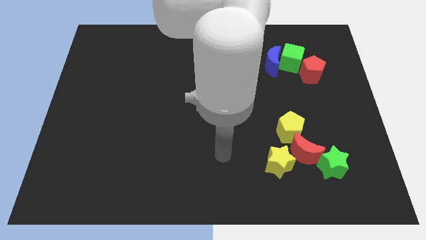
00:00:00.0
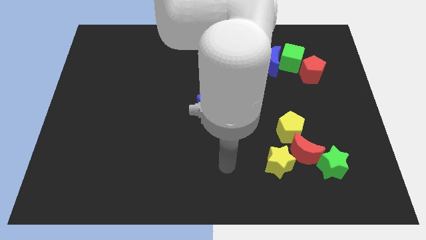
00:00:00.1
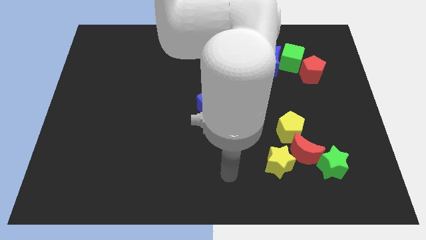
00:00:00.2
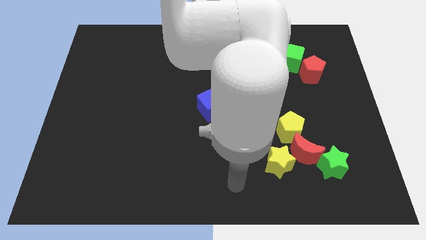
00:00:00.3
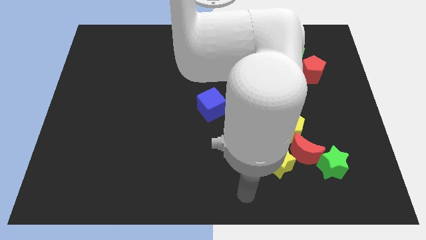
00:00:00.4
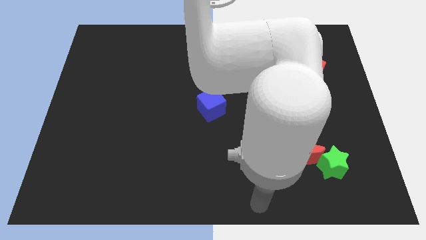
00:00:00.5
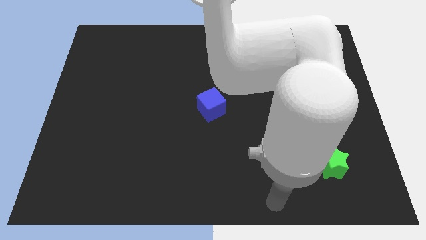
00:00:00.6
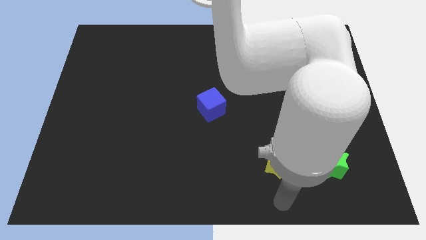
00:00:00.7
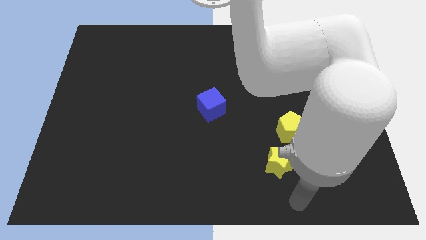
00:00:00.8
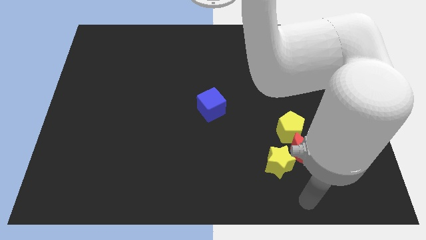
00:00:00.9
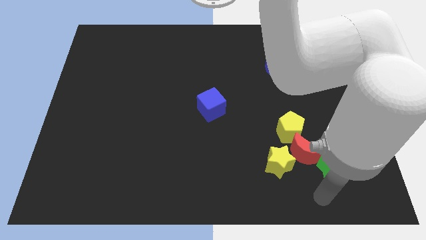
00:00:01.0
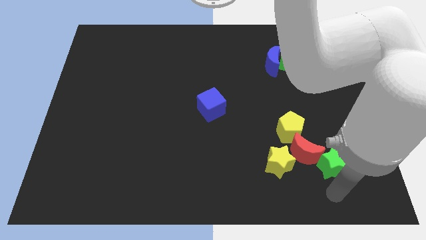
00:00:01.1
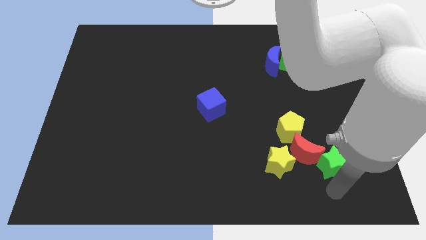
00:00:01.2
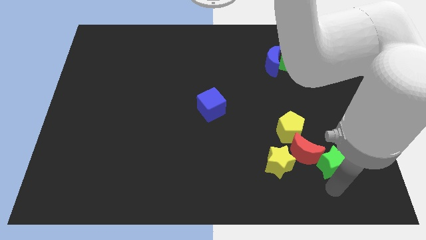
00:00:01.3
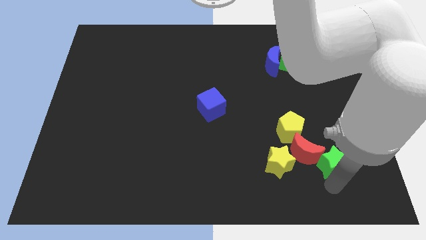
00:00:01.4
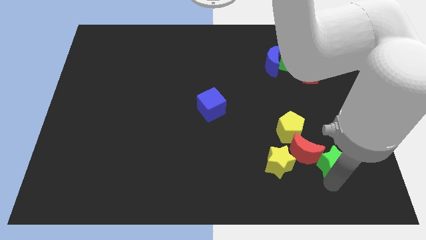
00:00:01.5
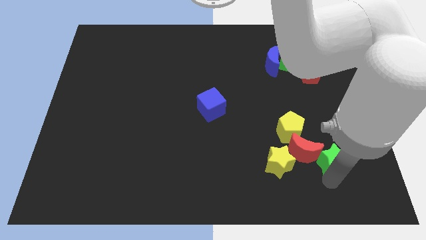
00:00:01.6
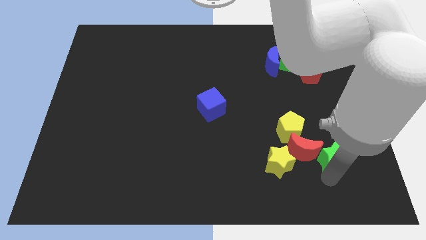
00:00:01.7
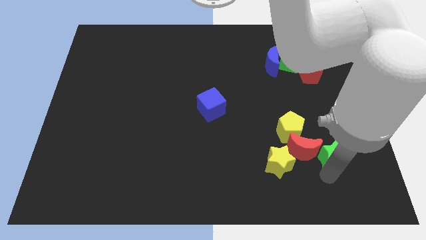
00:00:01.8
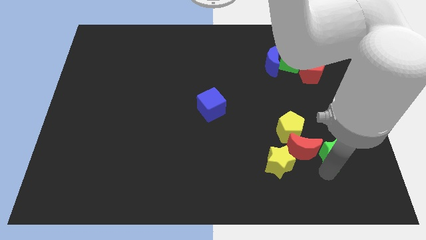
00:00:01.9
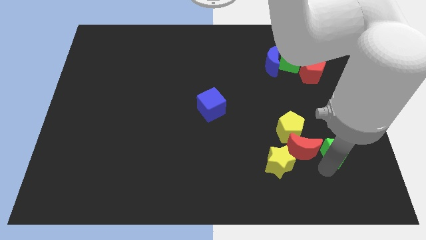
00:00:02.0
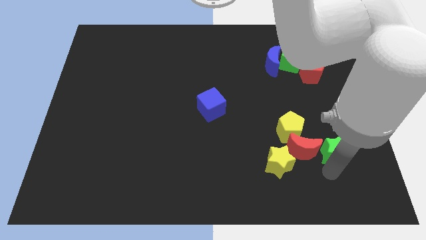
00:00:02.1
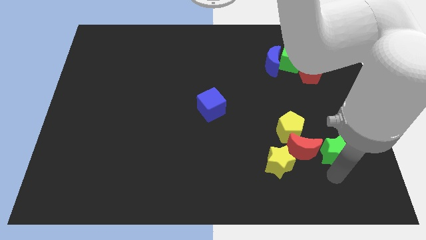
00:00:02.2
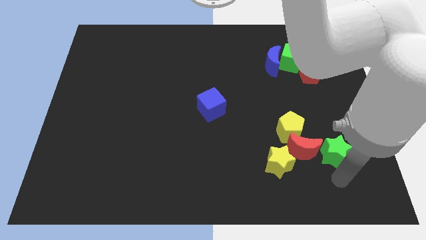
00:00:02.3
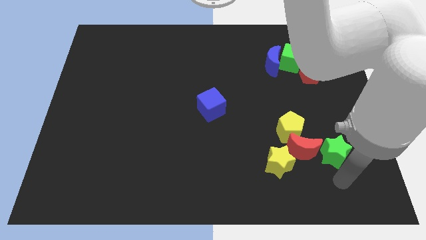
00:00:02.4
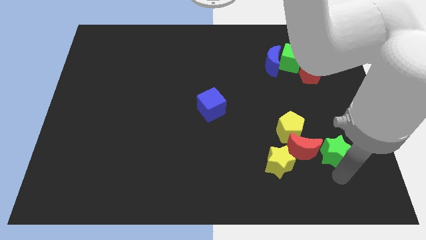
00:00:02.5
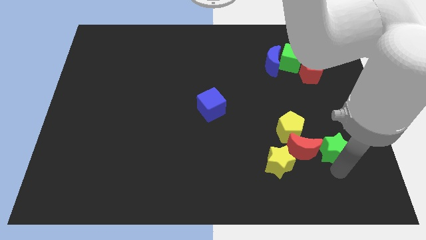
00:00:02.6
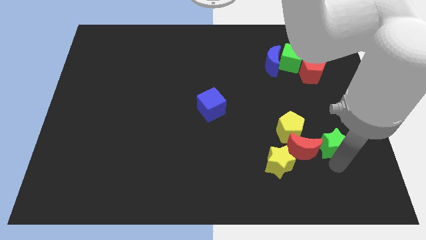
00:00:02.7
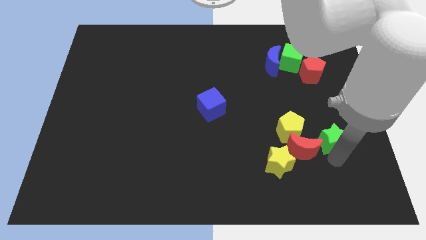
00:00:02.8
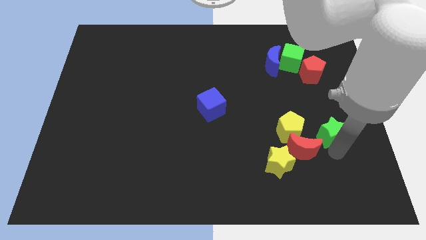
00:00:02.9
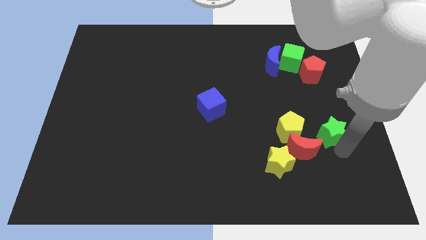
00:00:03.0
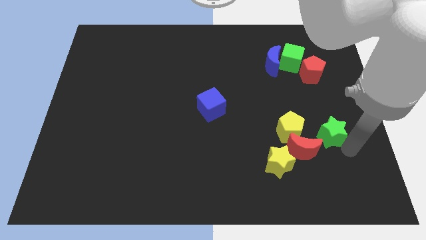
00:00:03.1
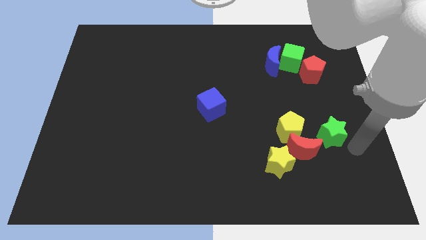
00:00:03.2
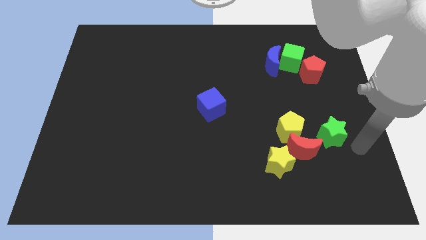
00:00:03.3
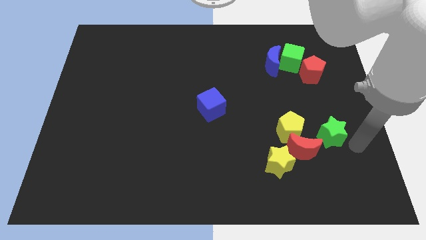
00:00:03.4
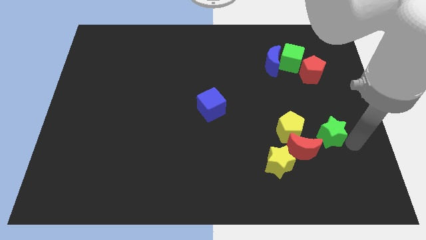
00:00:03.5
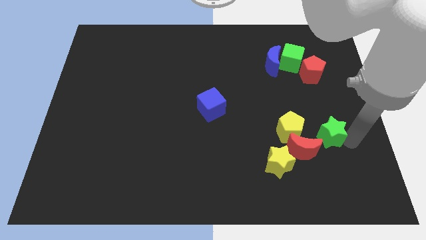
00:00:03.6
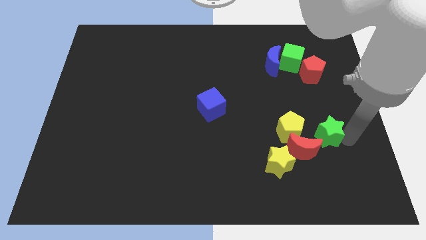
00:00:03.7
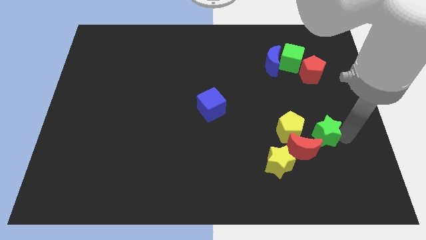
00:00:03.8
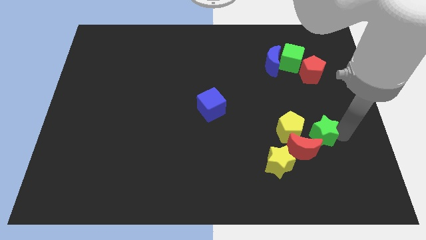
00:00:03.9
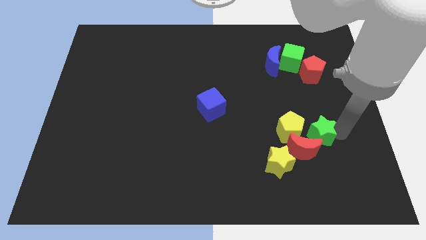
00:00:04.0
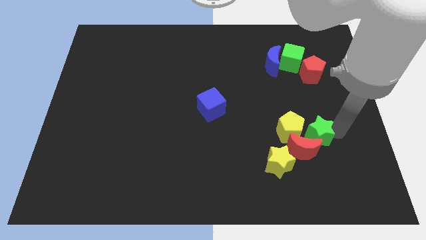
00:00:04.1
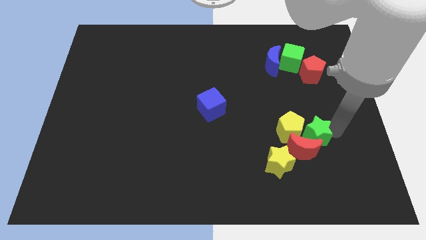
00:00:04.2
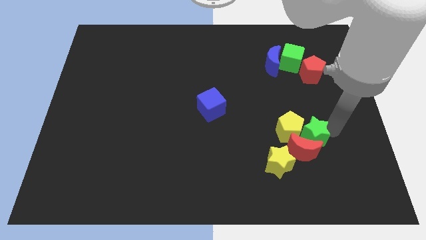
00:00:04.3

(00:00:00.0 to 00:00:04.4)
move the green star diagonally upwards and left slightly

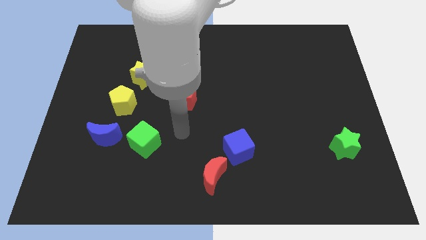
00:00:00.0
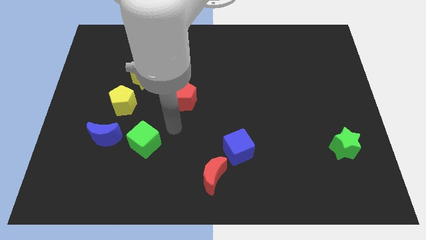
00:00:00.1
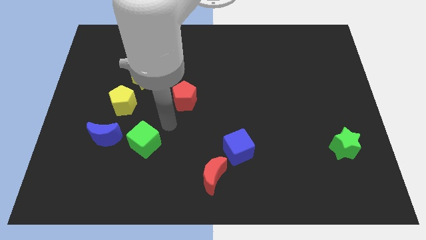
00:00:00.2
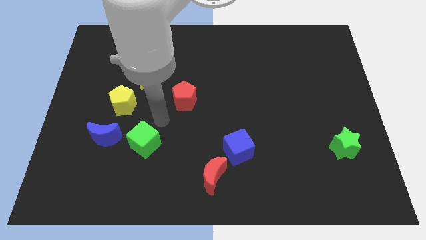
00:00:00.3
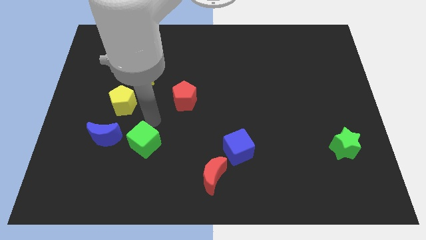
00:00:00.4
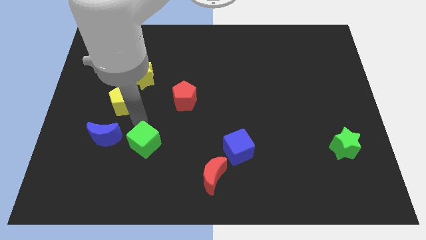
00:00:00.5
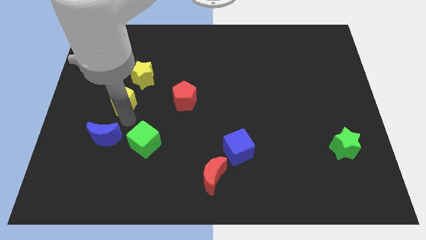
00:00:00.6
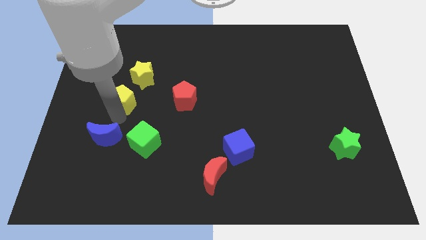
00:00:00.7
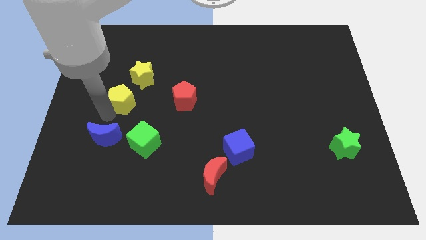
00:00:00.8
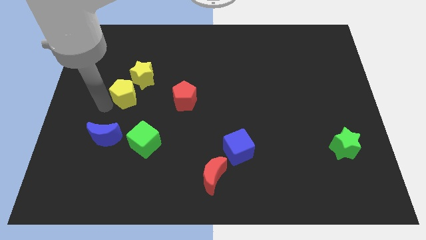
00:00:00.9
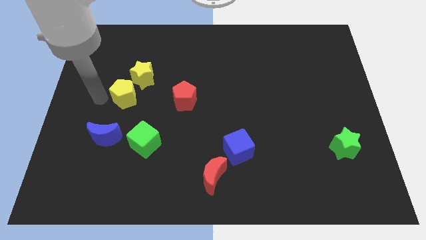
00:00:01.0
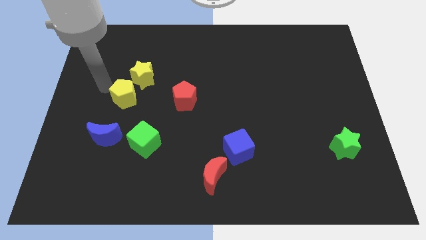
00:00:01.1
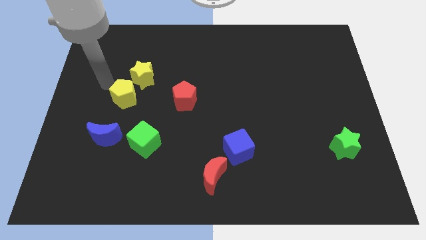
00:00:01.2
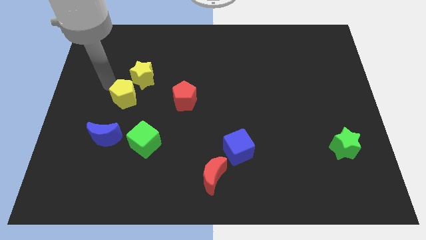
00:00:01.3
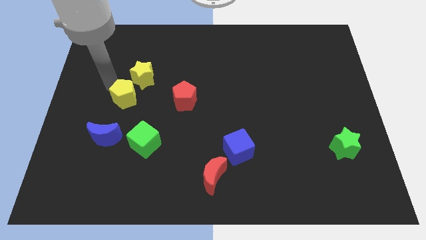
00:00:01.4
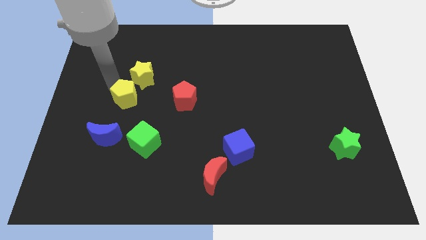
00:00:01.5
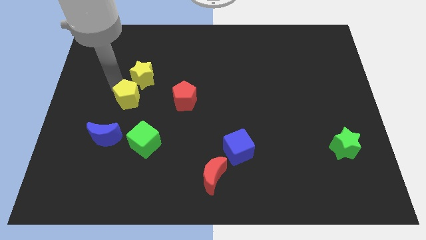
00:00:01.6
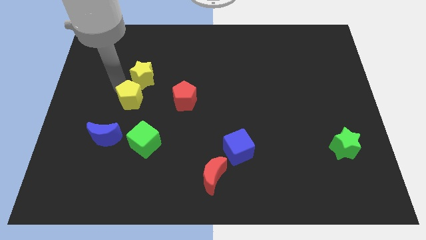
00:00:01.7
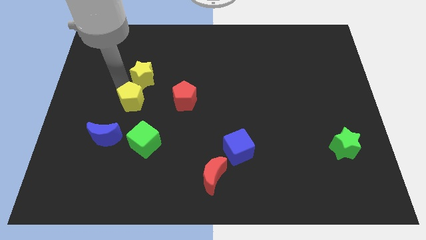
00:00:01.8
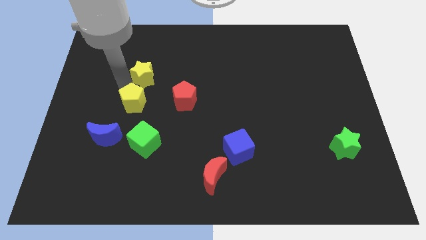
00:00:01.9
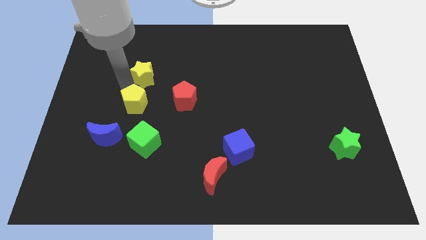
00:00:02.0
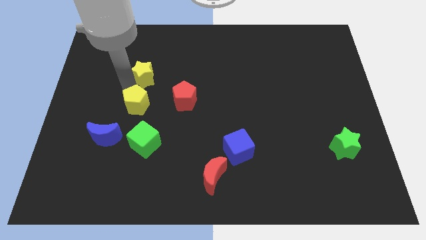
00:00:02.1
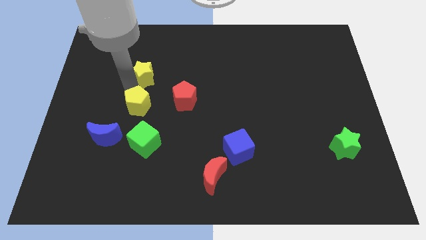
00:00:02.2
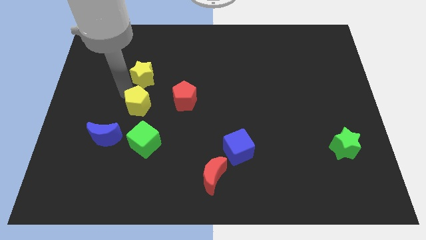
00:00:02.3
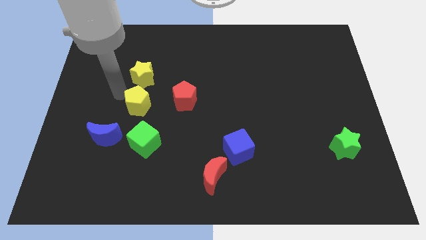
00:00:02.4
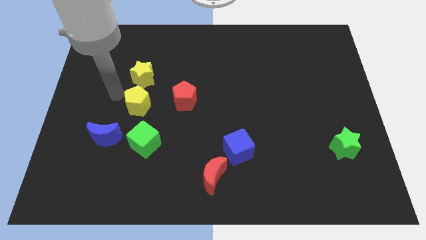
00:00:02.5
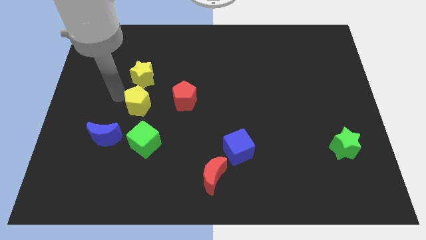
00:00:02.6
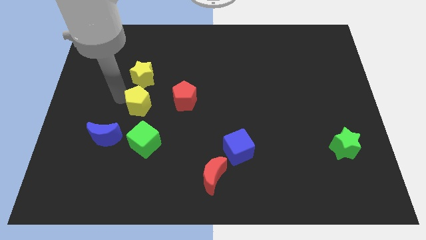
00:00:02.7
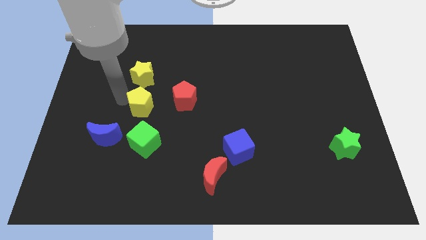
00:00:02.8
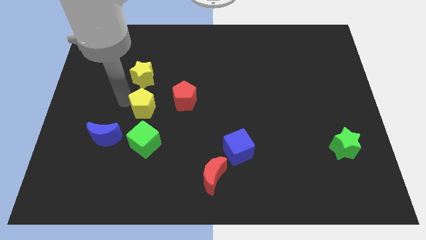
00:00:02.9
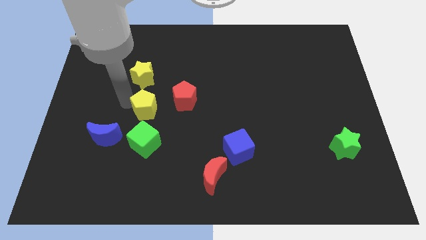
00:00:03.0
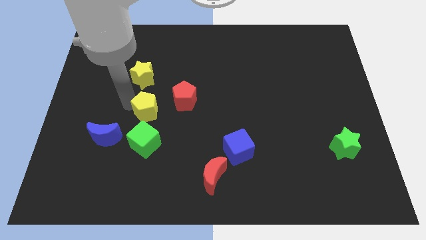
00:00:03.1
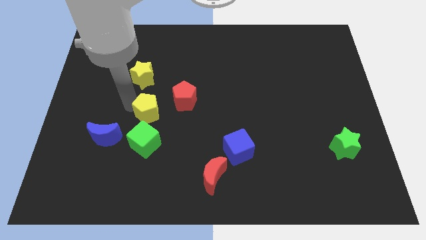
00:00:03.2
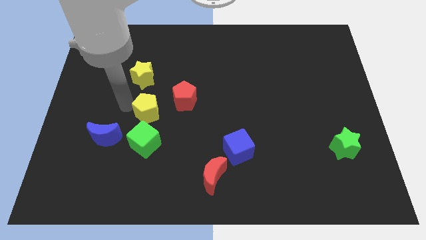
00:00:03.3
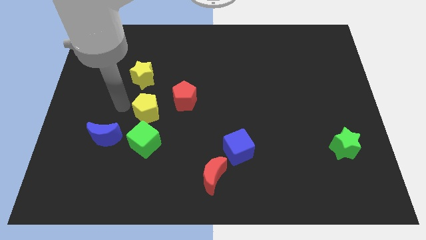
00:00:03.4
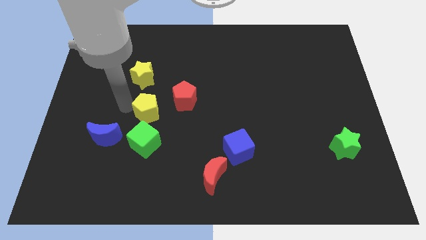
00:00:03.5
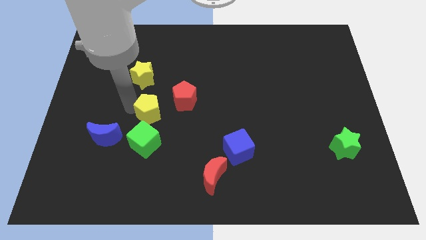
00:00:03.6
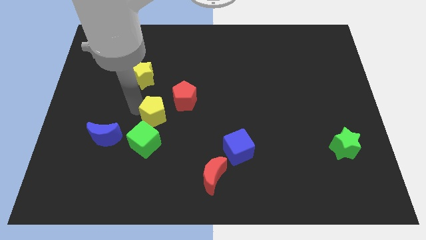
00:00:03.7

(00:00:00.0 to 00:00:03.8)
slide the yellow pentagon slightly to the right
